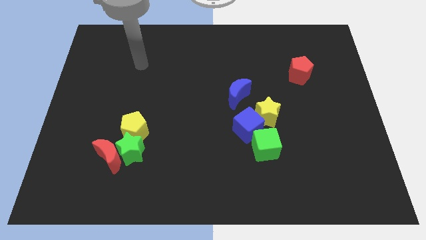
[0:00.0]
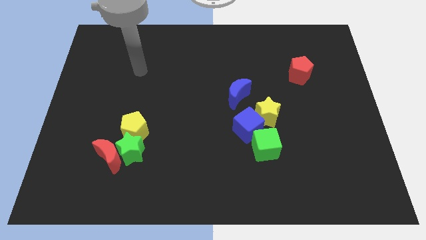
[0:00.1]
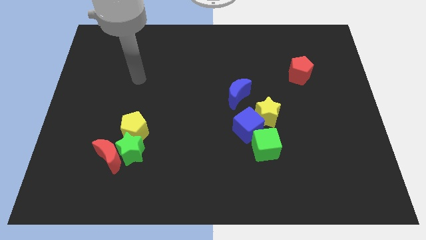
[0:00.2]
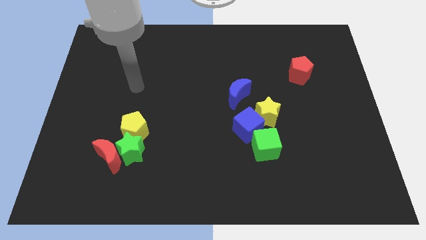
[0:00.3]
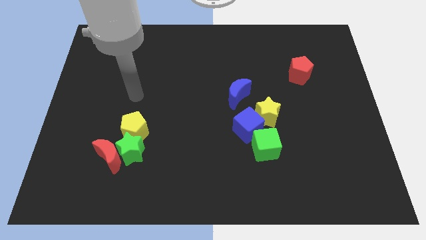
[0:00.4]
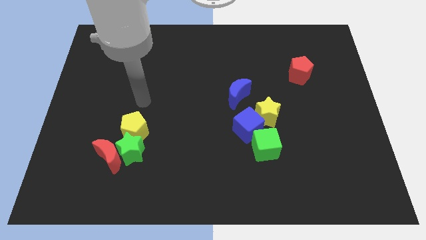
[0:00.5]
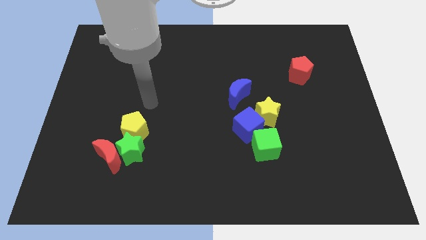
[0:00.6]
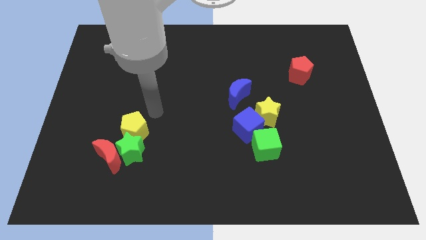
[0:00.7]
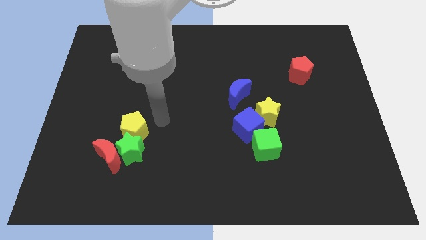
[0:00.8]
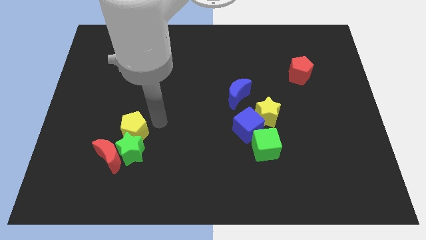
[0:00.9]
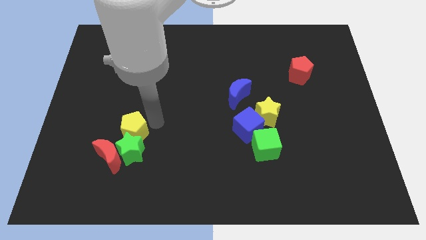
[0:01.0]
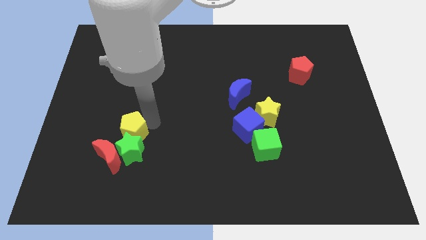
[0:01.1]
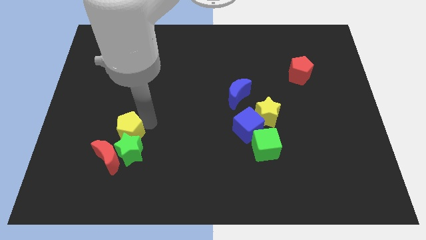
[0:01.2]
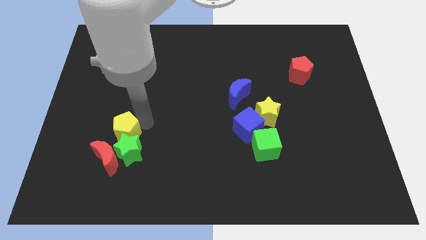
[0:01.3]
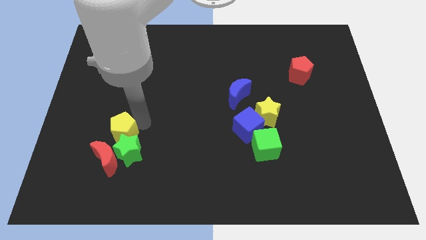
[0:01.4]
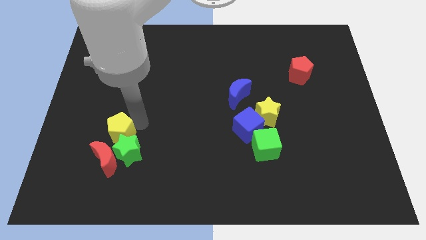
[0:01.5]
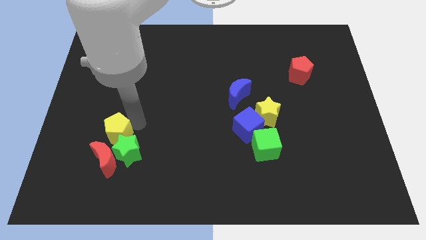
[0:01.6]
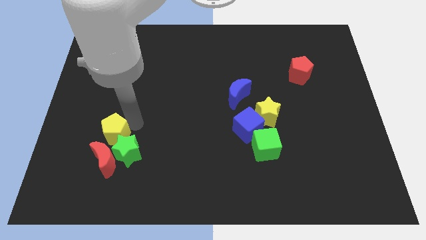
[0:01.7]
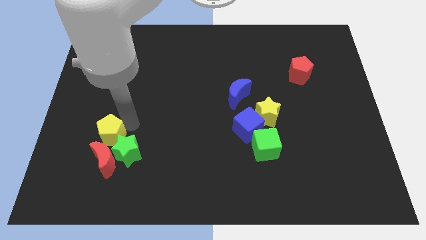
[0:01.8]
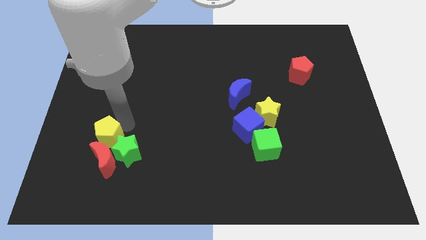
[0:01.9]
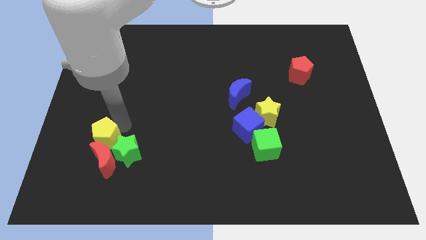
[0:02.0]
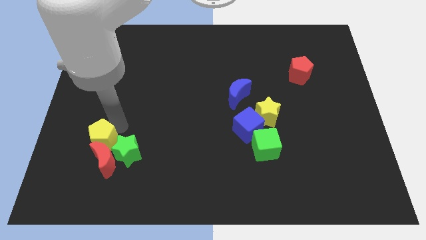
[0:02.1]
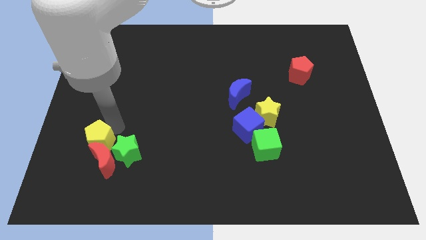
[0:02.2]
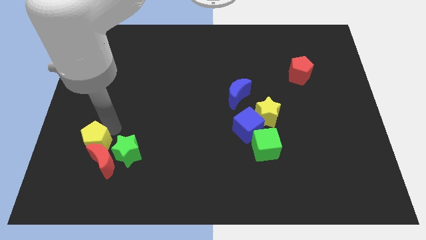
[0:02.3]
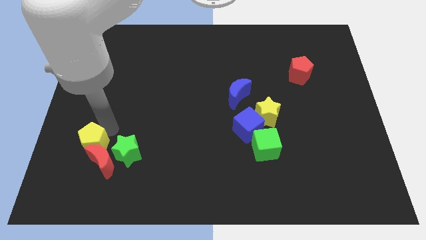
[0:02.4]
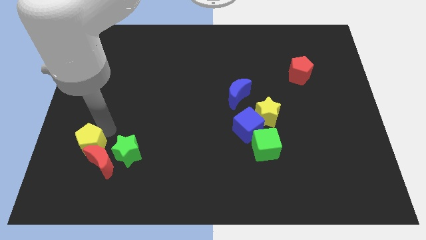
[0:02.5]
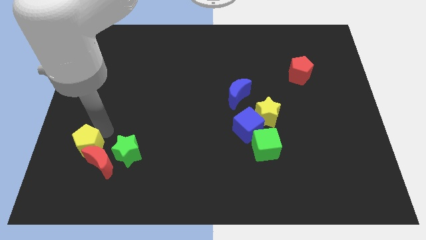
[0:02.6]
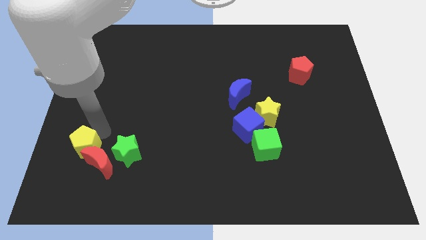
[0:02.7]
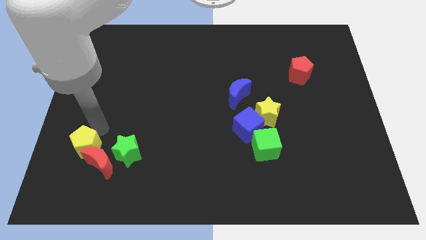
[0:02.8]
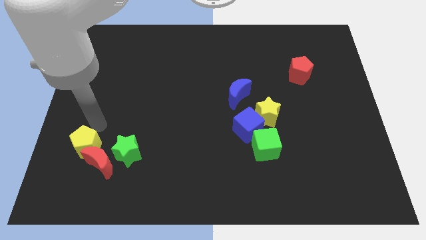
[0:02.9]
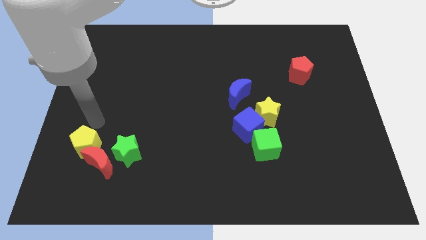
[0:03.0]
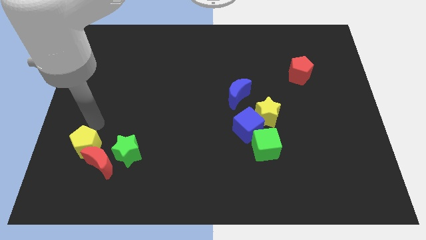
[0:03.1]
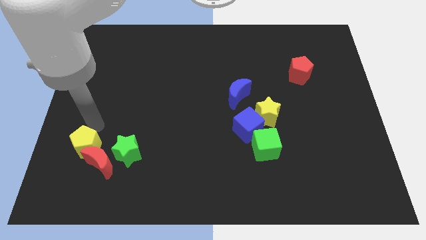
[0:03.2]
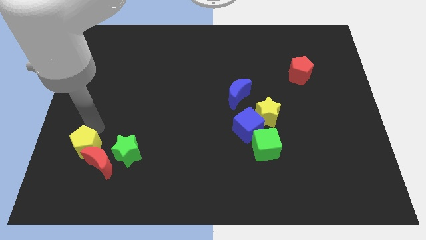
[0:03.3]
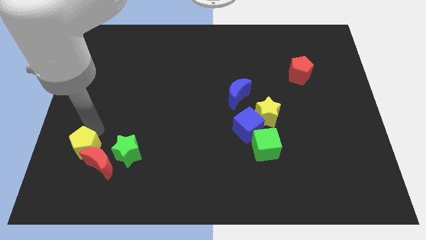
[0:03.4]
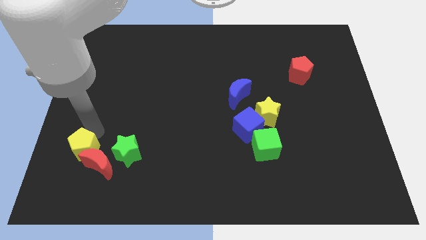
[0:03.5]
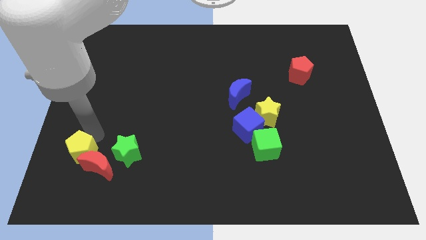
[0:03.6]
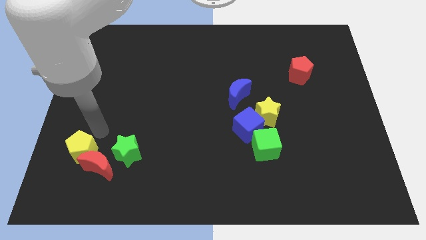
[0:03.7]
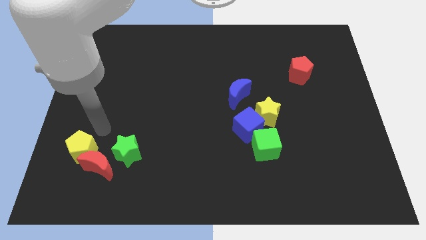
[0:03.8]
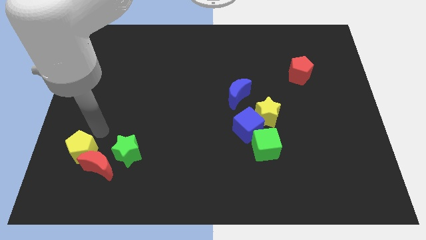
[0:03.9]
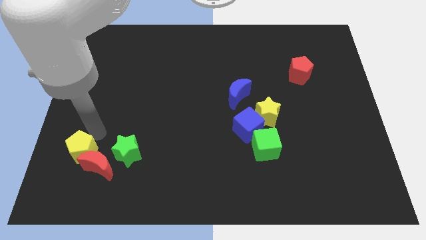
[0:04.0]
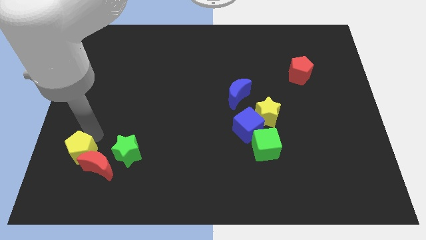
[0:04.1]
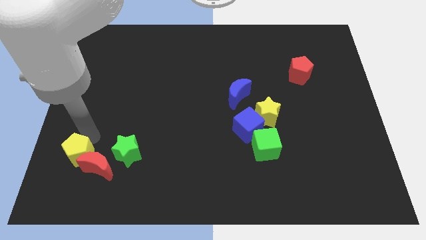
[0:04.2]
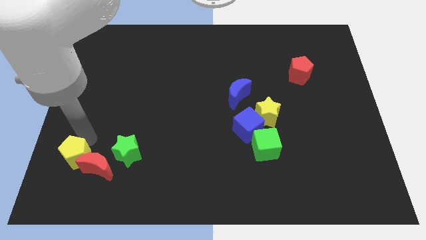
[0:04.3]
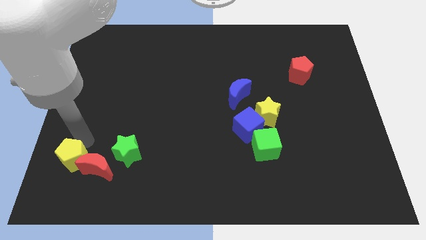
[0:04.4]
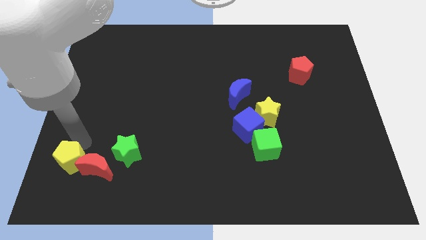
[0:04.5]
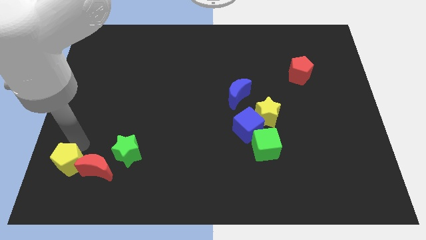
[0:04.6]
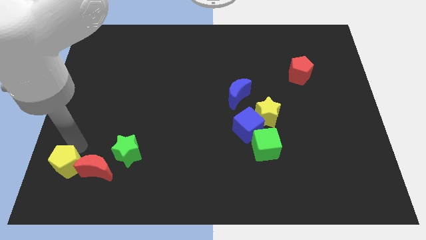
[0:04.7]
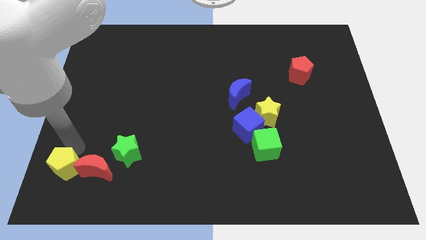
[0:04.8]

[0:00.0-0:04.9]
push the yellow pentagon to the lower left corner

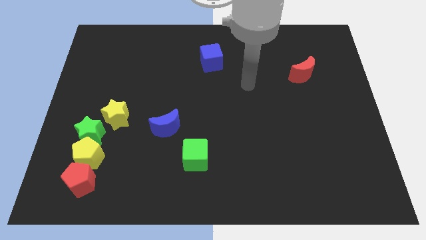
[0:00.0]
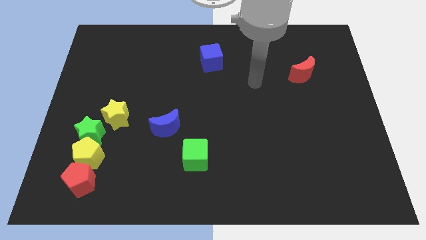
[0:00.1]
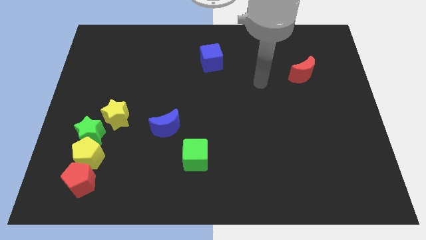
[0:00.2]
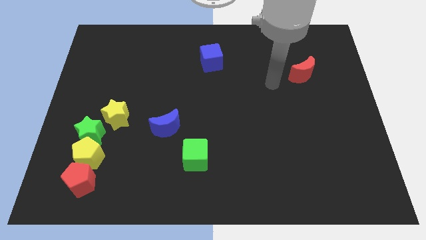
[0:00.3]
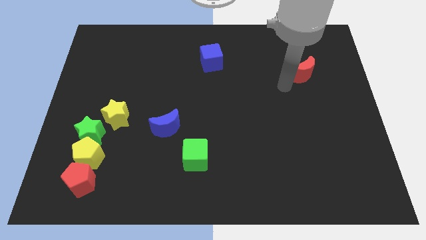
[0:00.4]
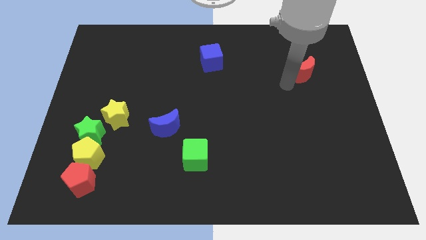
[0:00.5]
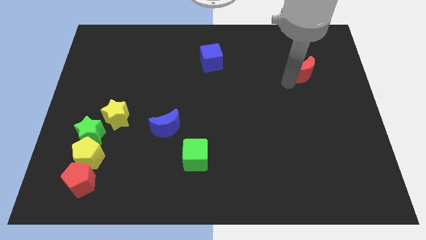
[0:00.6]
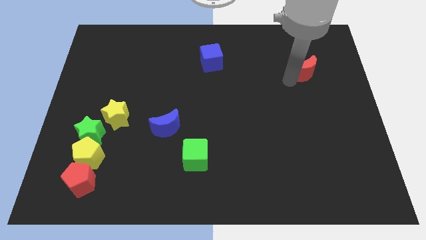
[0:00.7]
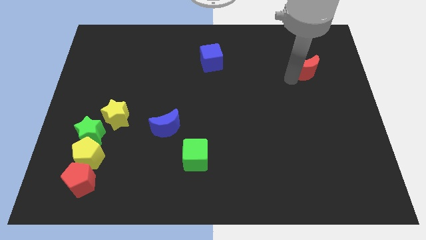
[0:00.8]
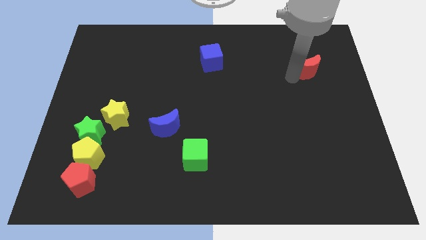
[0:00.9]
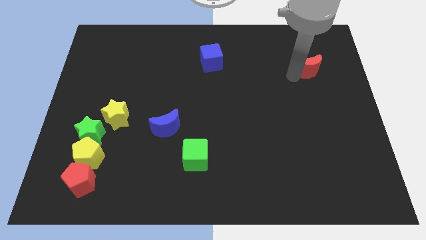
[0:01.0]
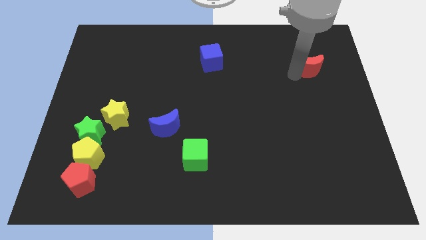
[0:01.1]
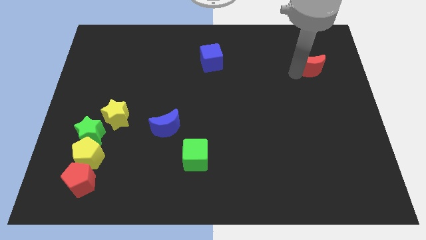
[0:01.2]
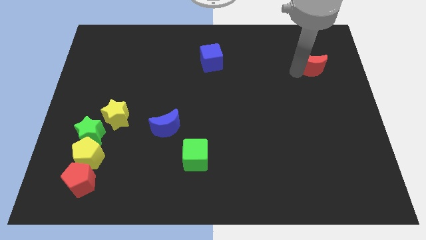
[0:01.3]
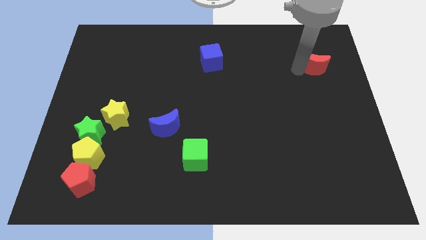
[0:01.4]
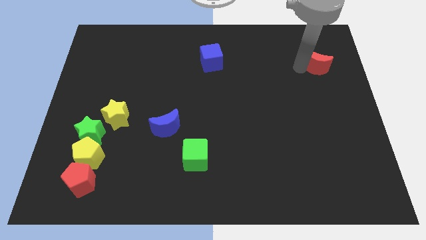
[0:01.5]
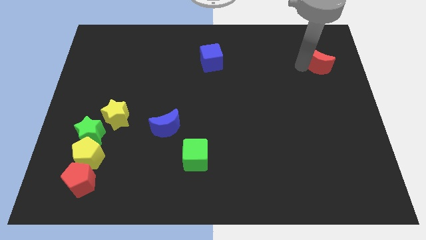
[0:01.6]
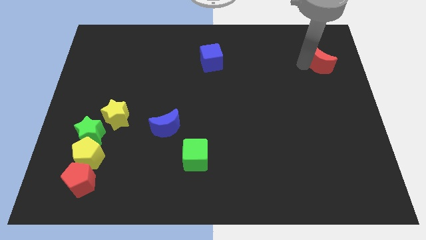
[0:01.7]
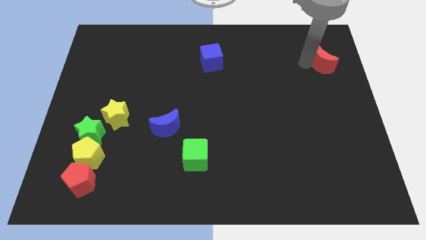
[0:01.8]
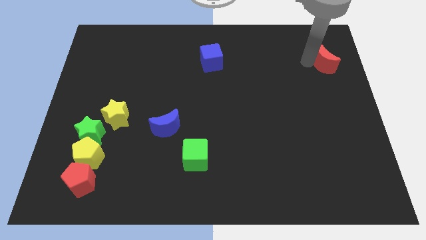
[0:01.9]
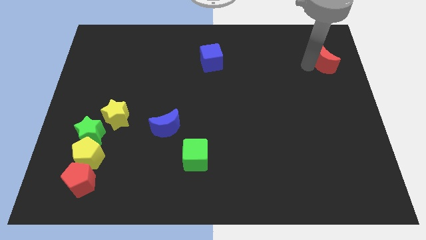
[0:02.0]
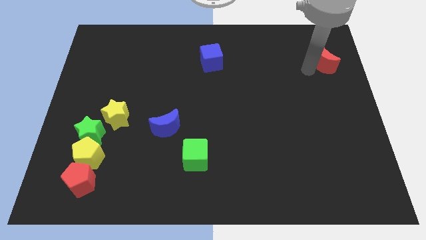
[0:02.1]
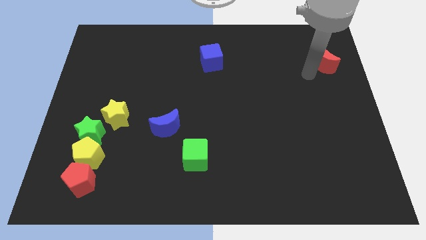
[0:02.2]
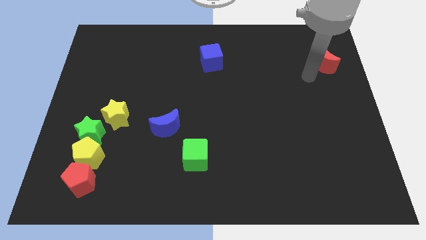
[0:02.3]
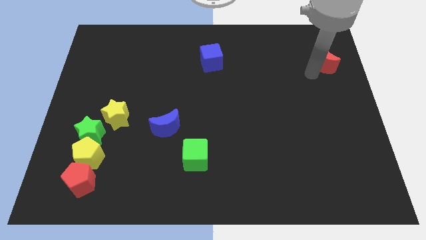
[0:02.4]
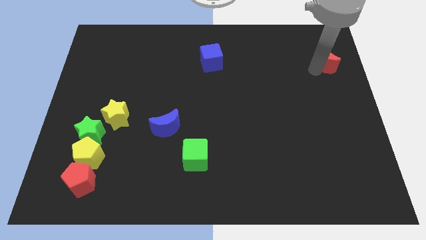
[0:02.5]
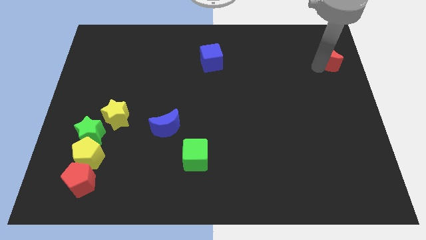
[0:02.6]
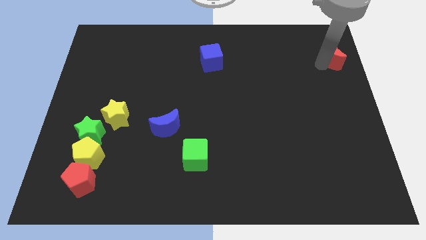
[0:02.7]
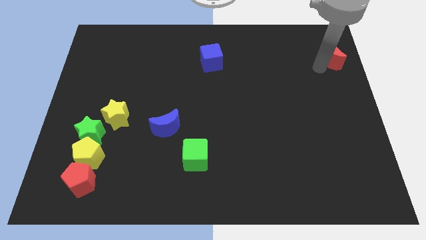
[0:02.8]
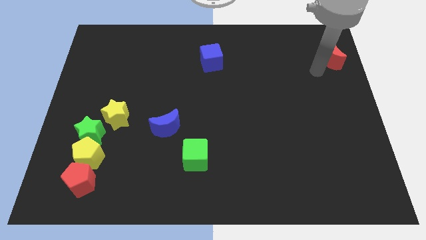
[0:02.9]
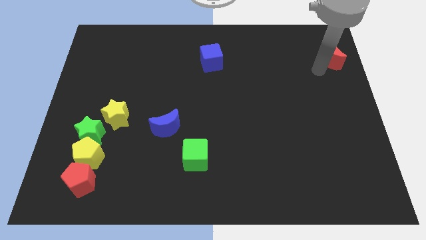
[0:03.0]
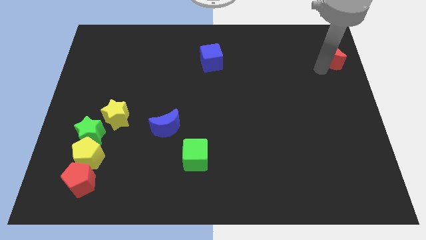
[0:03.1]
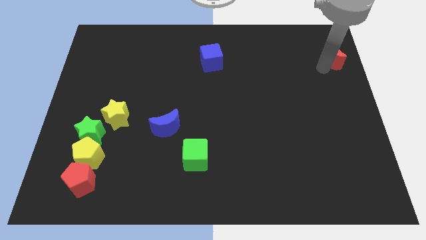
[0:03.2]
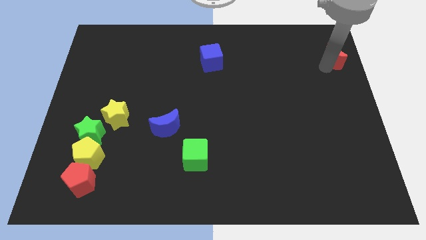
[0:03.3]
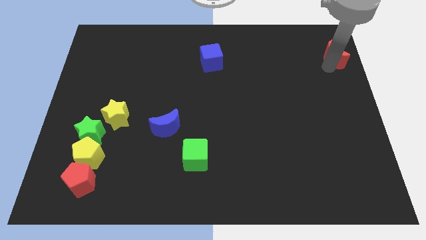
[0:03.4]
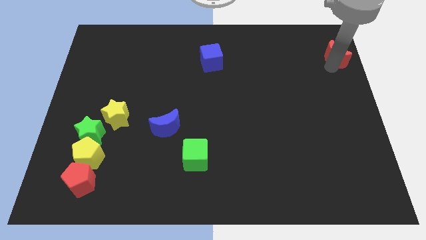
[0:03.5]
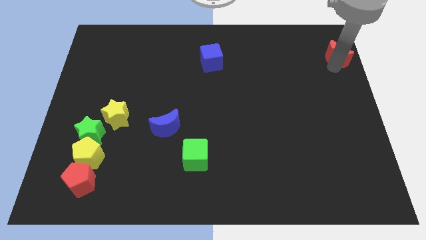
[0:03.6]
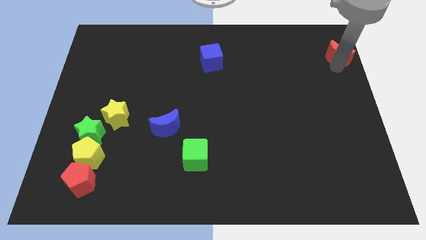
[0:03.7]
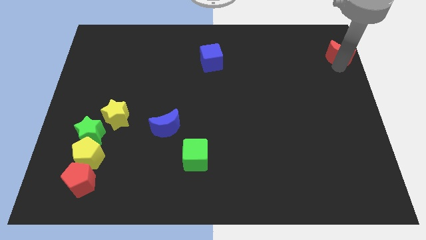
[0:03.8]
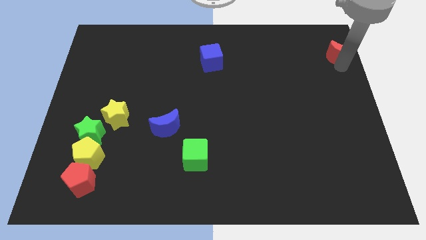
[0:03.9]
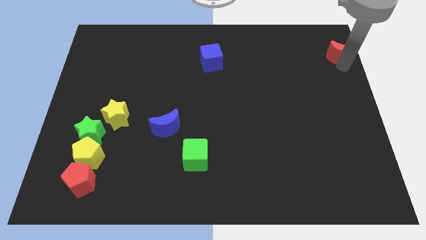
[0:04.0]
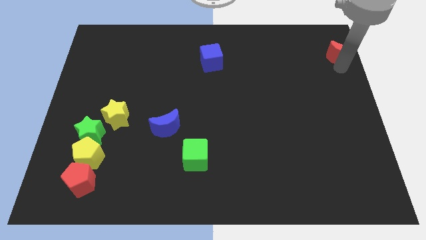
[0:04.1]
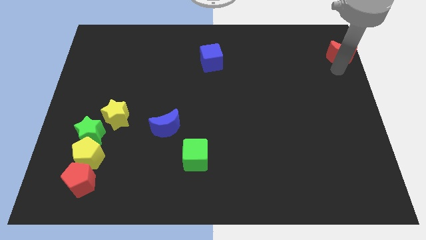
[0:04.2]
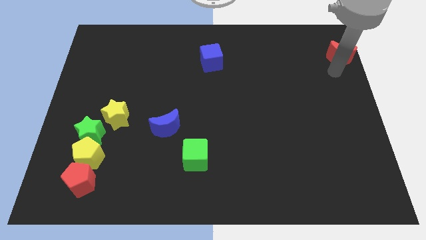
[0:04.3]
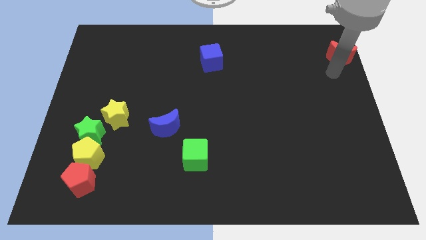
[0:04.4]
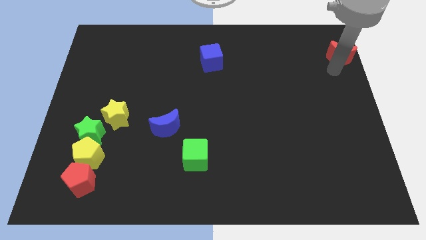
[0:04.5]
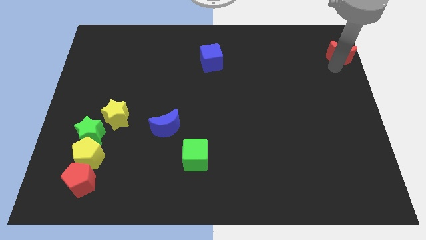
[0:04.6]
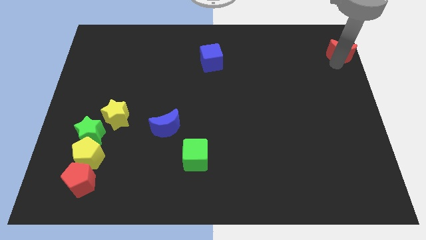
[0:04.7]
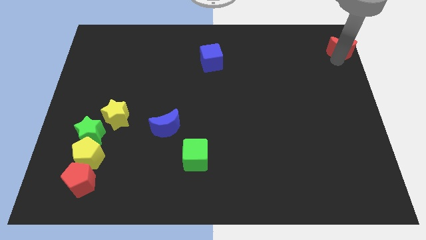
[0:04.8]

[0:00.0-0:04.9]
slide the red moon to the top right of the board
